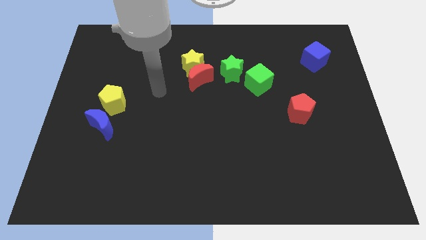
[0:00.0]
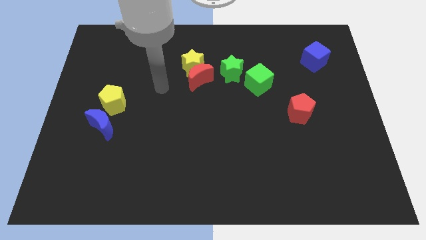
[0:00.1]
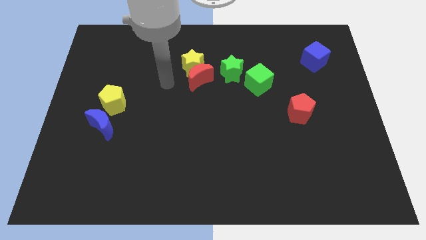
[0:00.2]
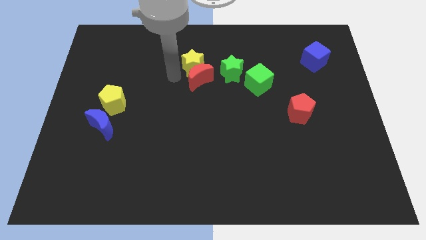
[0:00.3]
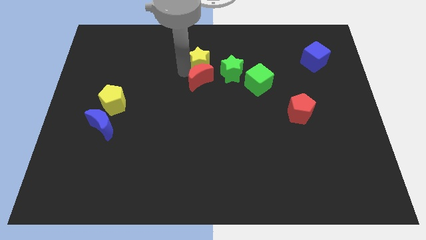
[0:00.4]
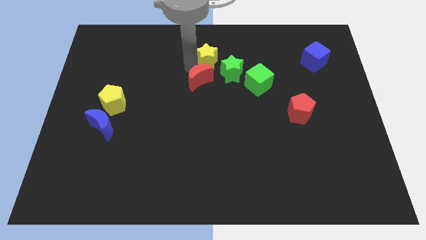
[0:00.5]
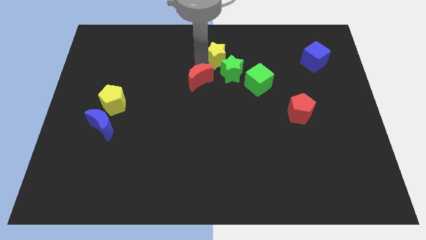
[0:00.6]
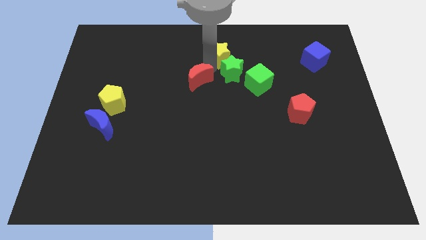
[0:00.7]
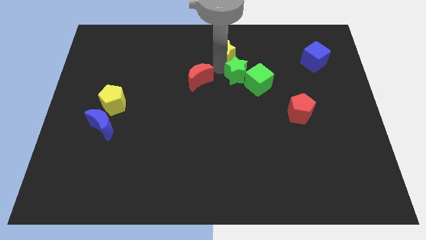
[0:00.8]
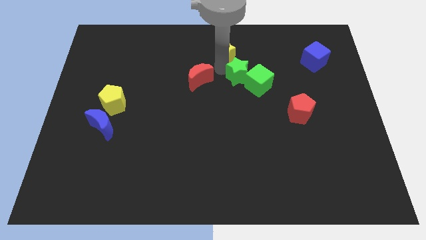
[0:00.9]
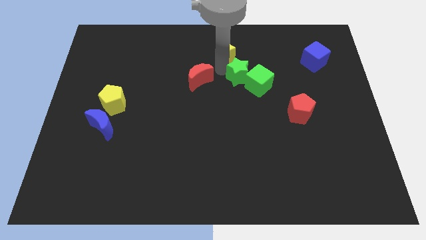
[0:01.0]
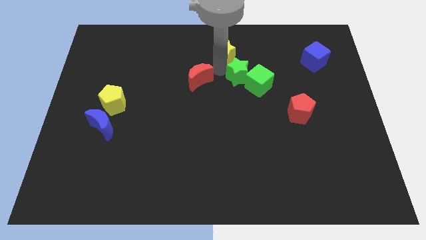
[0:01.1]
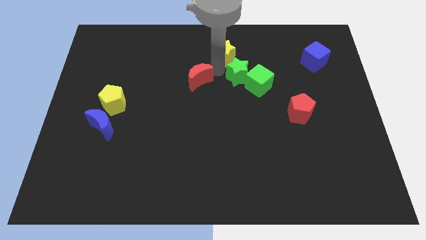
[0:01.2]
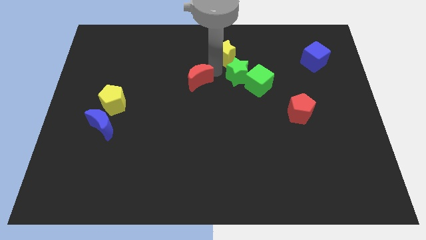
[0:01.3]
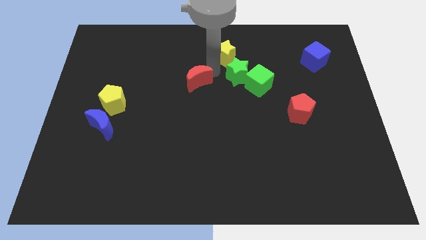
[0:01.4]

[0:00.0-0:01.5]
pull the red moon apart from the yellow star and green star

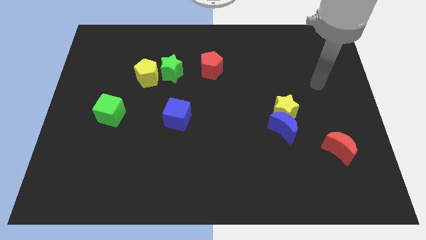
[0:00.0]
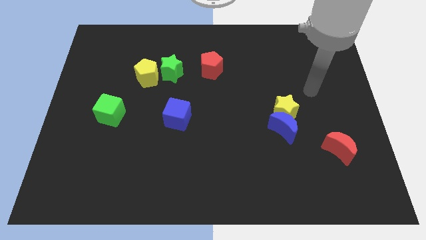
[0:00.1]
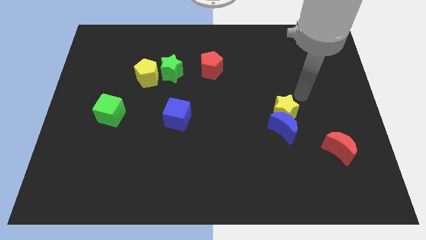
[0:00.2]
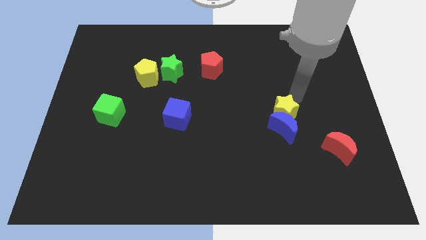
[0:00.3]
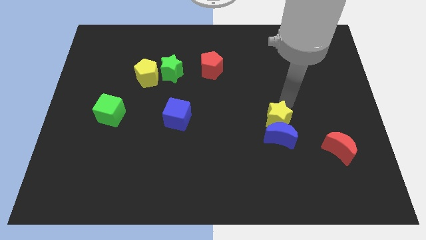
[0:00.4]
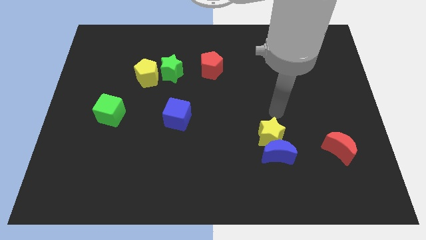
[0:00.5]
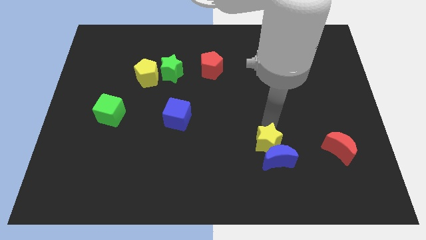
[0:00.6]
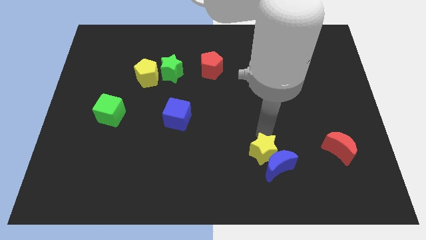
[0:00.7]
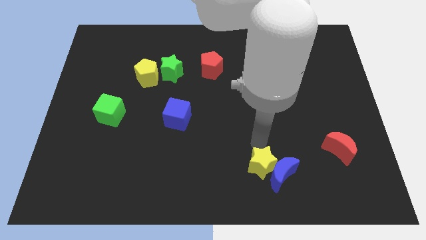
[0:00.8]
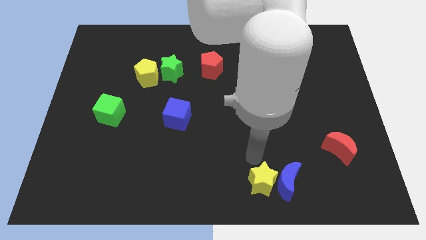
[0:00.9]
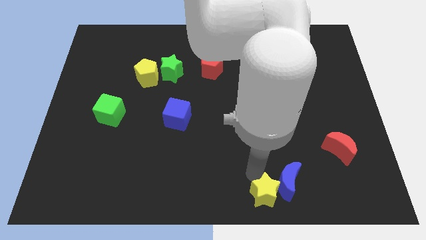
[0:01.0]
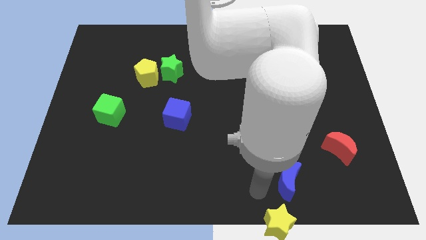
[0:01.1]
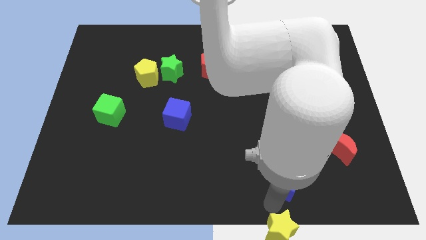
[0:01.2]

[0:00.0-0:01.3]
pull the blue moon apart from the yellow star

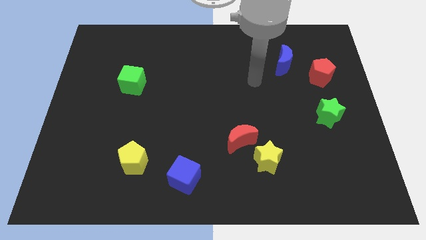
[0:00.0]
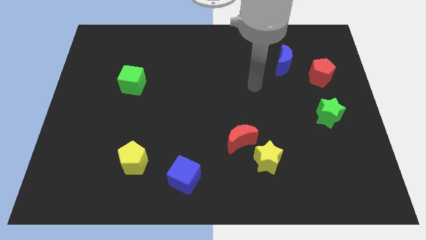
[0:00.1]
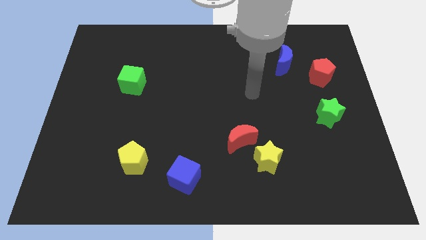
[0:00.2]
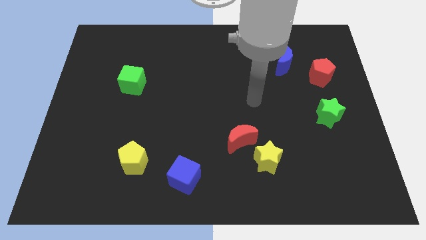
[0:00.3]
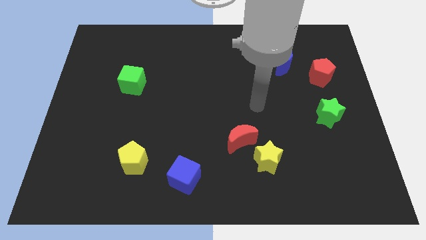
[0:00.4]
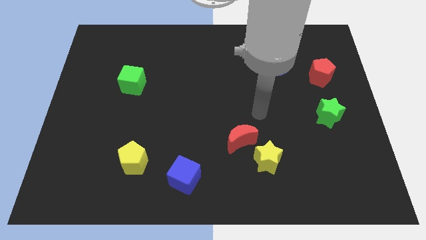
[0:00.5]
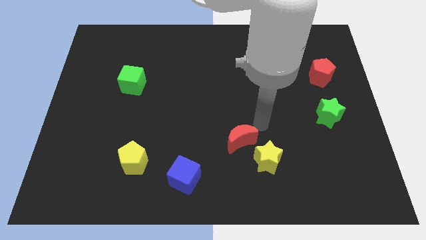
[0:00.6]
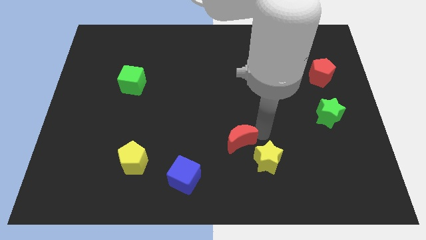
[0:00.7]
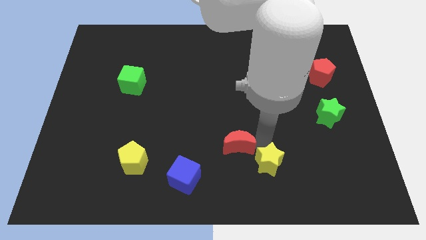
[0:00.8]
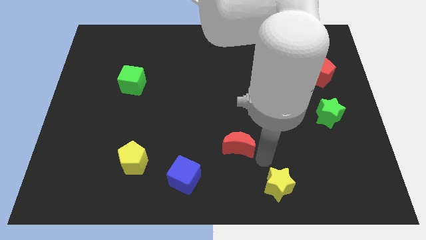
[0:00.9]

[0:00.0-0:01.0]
separate the red moon from the yellow star

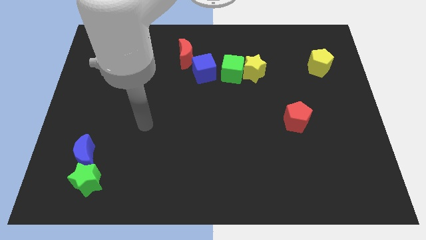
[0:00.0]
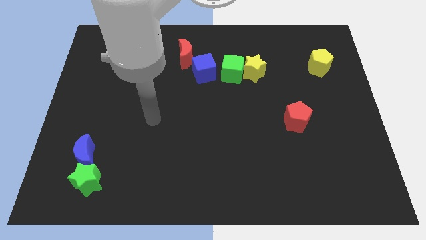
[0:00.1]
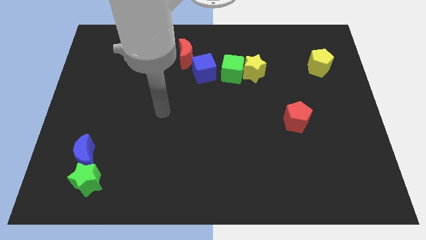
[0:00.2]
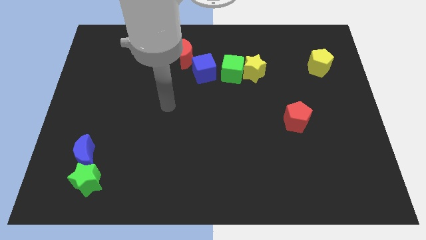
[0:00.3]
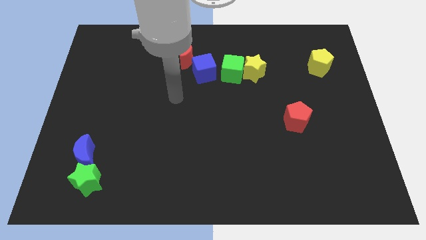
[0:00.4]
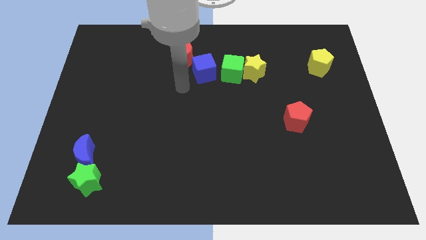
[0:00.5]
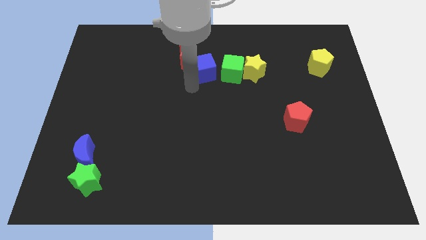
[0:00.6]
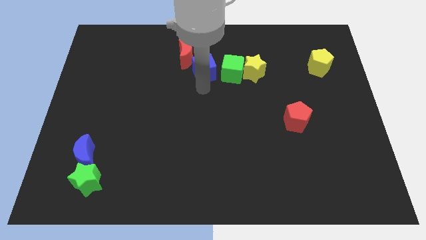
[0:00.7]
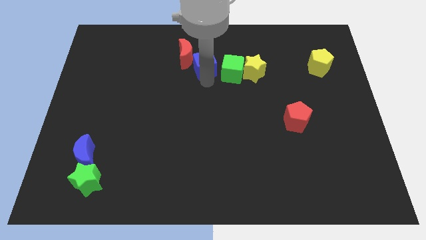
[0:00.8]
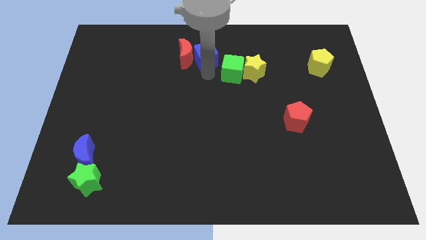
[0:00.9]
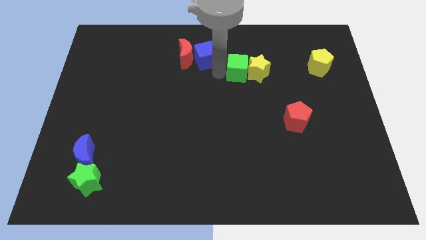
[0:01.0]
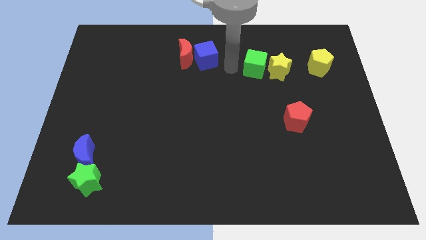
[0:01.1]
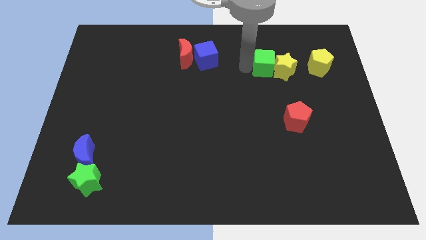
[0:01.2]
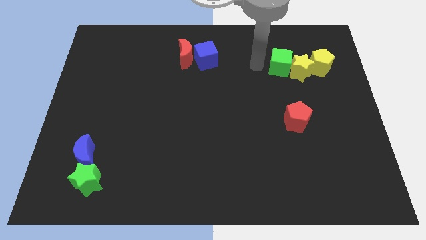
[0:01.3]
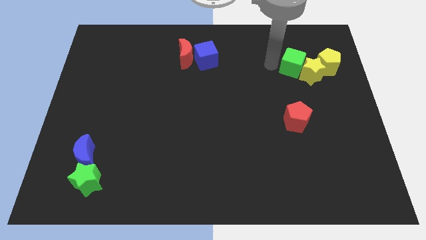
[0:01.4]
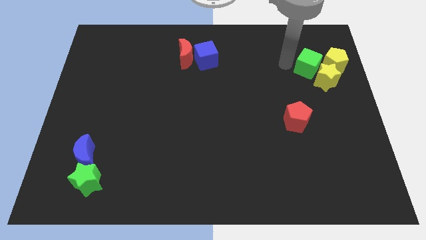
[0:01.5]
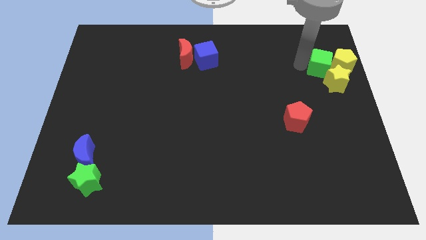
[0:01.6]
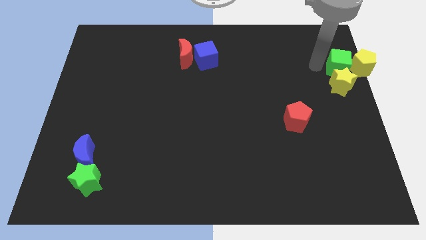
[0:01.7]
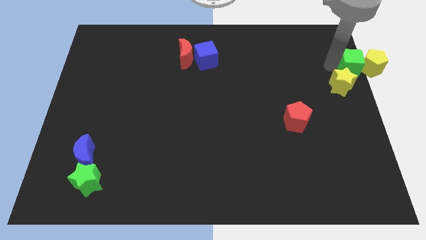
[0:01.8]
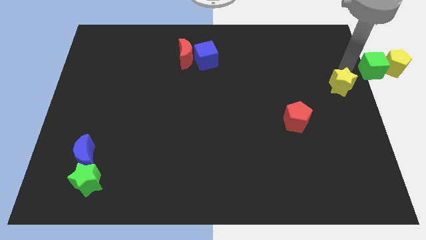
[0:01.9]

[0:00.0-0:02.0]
separate the yellow star from the green cube

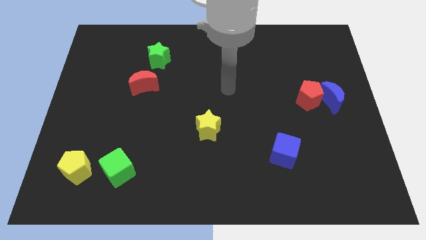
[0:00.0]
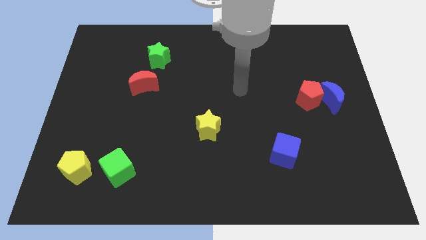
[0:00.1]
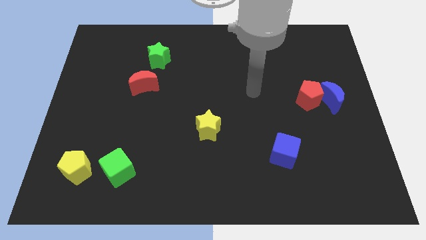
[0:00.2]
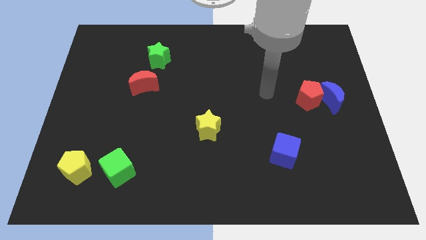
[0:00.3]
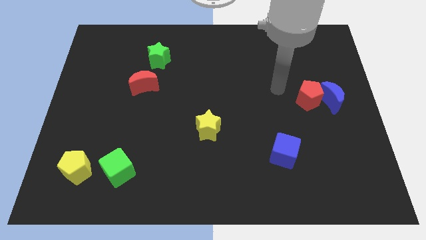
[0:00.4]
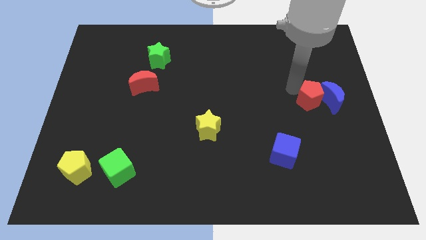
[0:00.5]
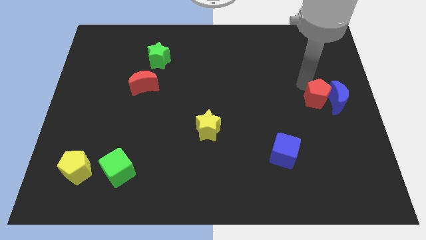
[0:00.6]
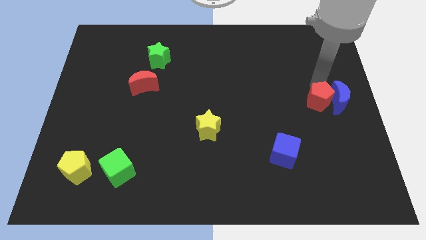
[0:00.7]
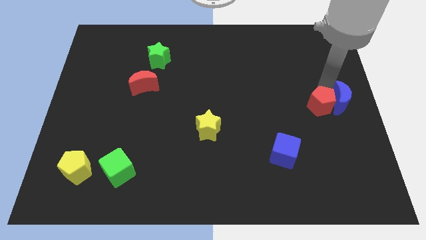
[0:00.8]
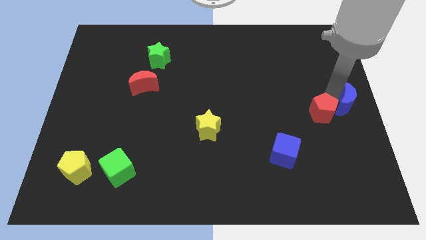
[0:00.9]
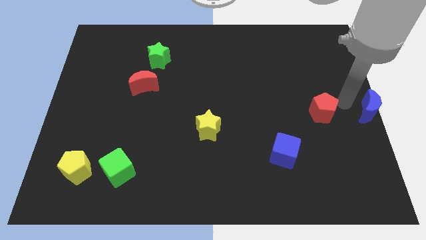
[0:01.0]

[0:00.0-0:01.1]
separate the red pentagon from the blue moon

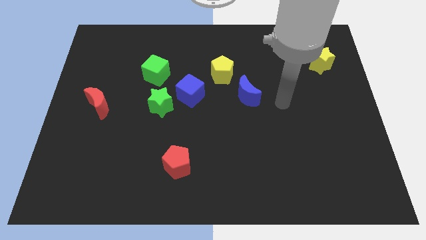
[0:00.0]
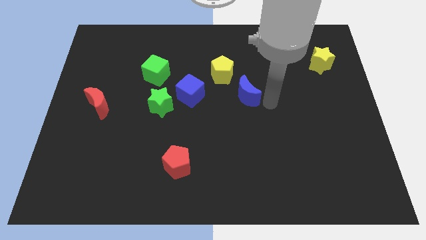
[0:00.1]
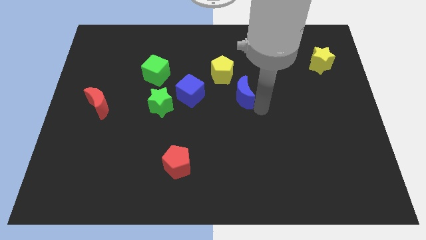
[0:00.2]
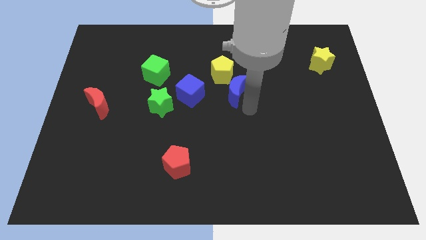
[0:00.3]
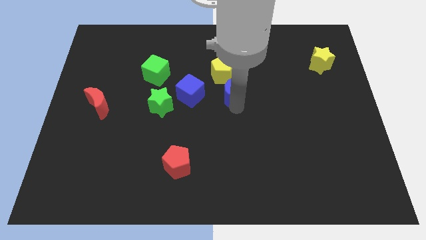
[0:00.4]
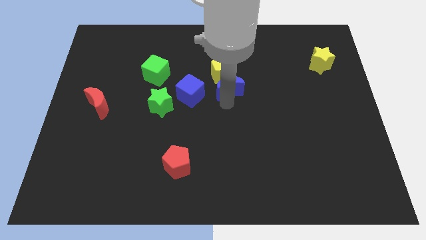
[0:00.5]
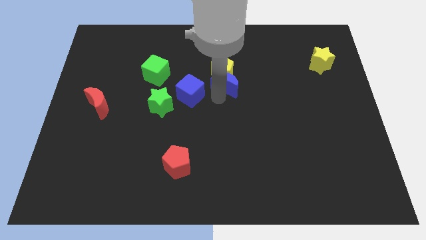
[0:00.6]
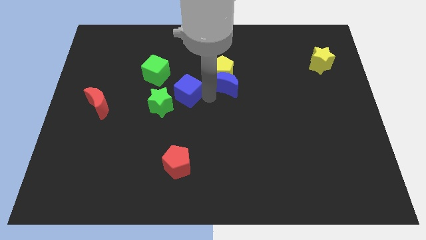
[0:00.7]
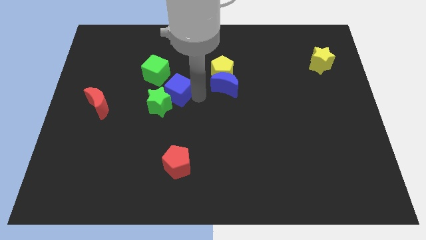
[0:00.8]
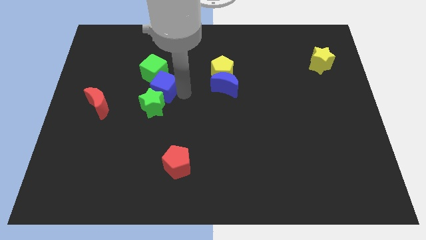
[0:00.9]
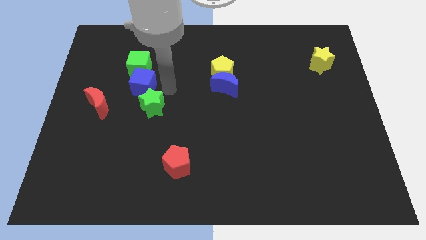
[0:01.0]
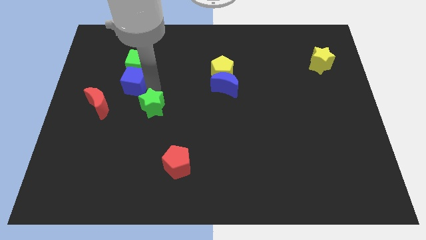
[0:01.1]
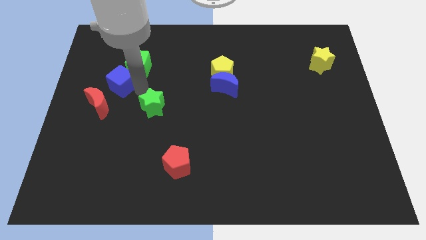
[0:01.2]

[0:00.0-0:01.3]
separate the green star from the blue cube

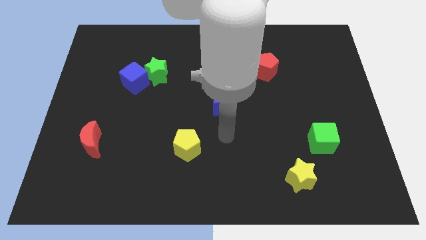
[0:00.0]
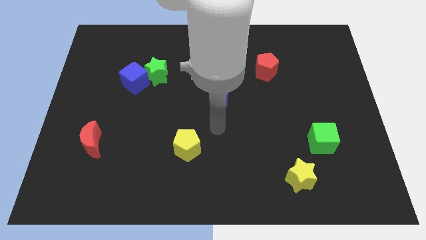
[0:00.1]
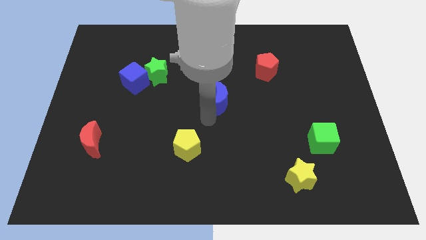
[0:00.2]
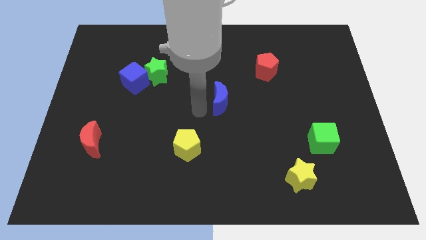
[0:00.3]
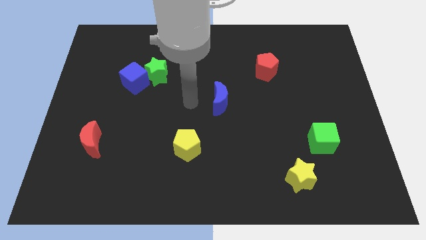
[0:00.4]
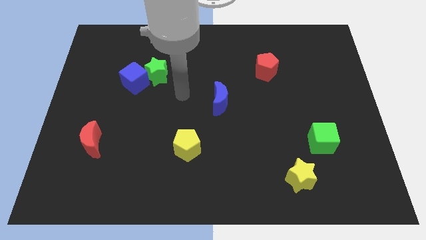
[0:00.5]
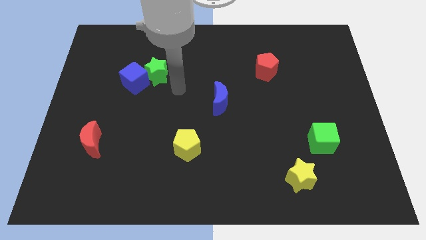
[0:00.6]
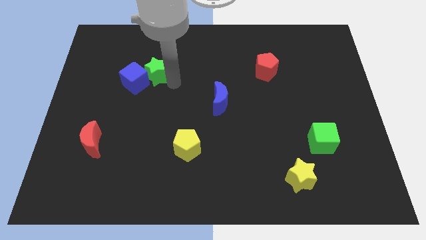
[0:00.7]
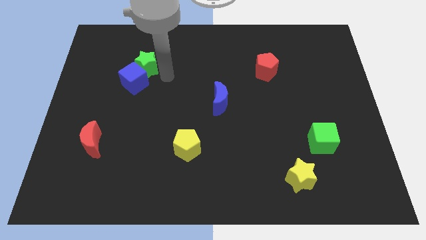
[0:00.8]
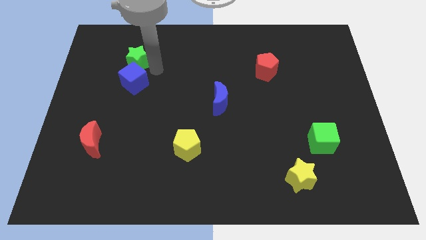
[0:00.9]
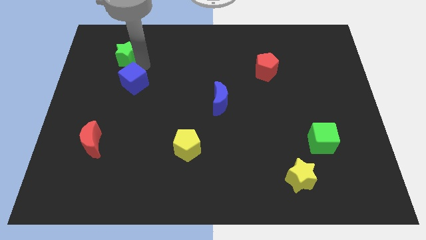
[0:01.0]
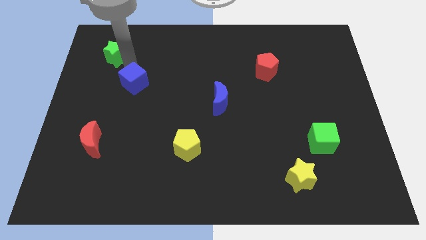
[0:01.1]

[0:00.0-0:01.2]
pull the blue cube apart from the green star

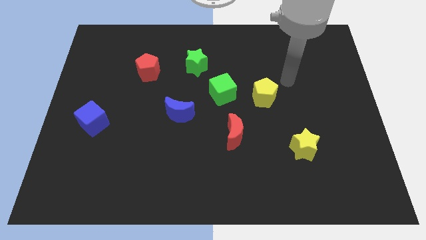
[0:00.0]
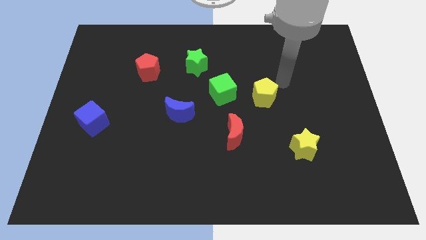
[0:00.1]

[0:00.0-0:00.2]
separate the green cube from the yellow pentagon
